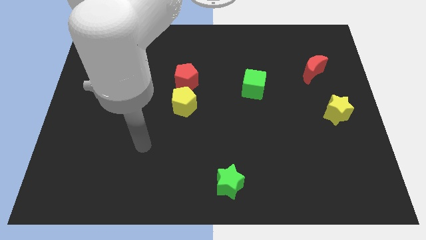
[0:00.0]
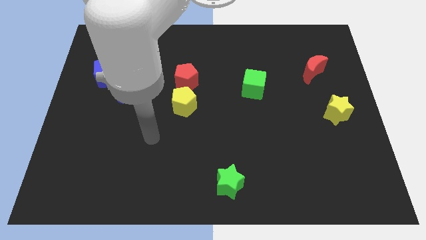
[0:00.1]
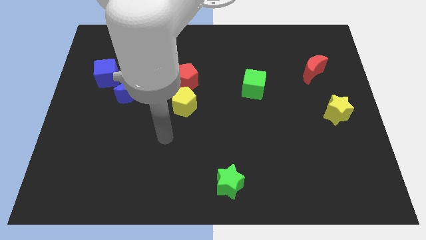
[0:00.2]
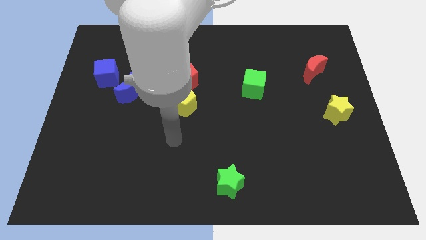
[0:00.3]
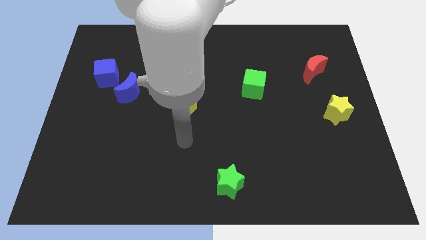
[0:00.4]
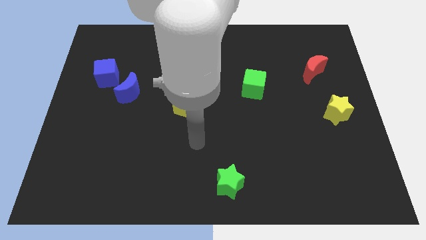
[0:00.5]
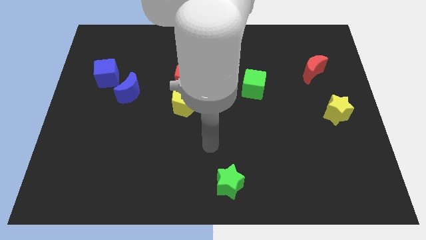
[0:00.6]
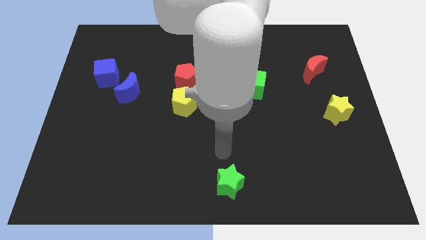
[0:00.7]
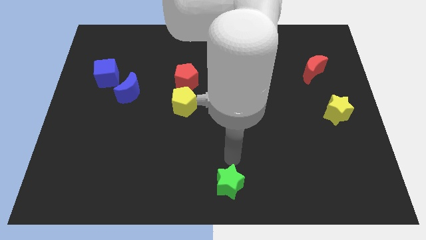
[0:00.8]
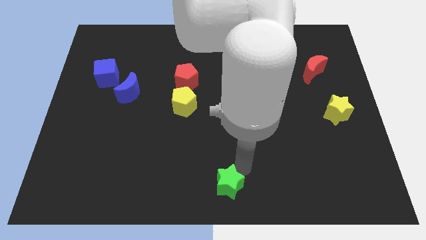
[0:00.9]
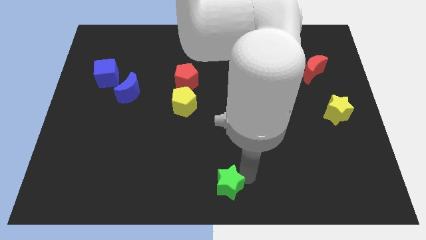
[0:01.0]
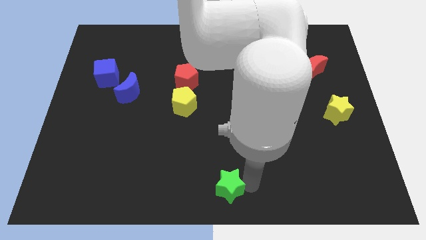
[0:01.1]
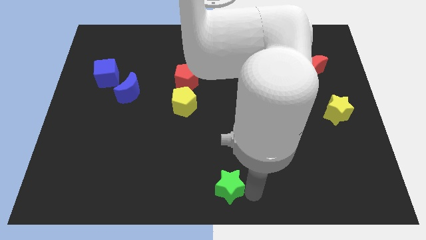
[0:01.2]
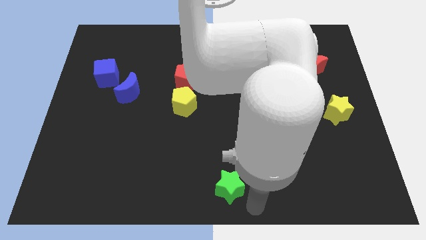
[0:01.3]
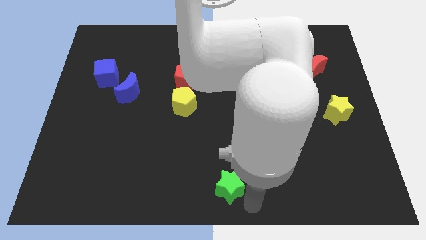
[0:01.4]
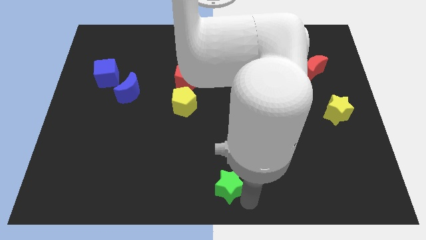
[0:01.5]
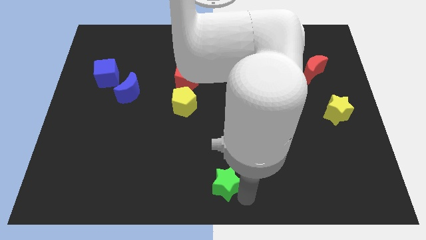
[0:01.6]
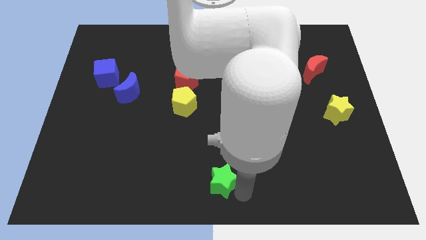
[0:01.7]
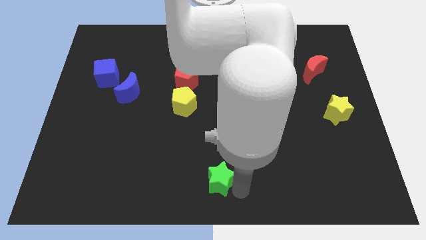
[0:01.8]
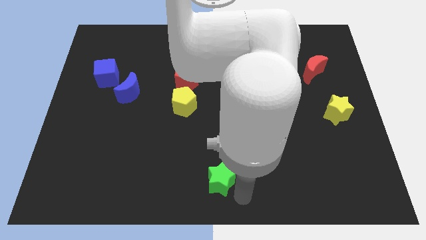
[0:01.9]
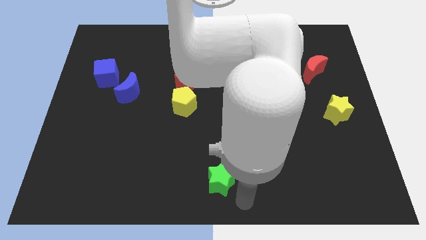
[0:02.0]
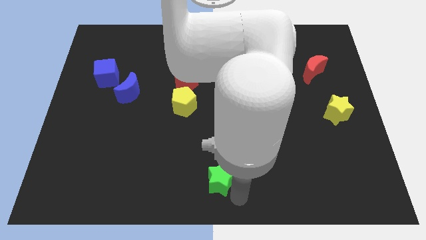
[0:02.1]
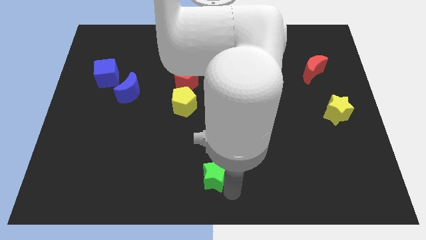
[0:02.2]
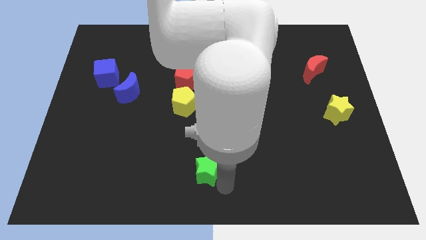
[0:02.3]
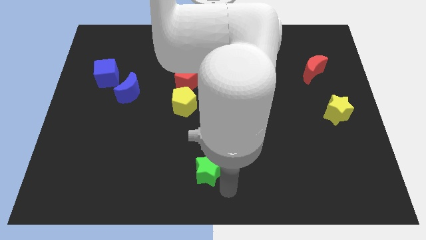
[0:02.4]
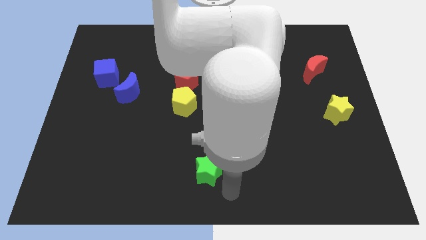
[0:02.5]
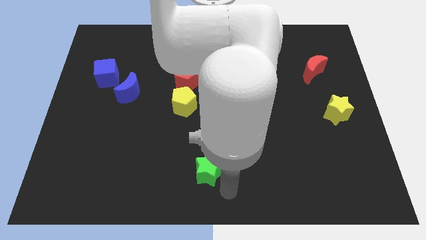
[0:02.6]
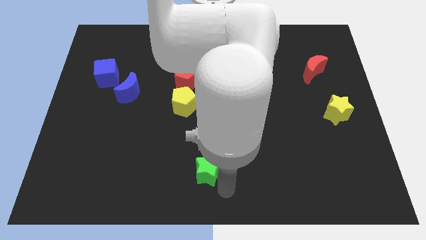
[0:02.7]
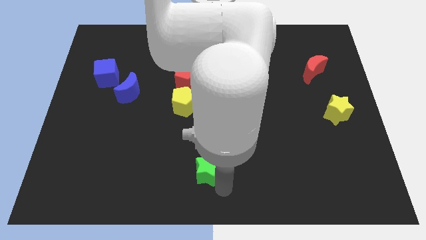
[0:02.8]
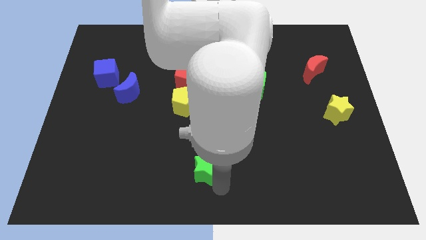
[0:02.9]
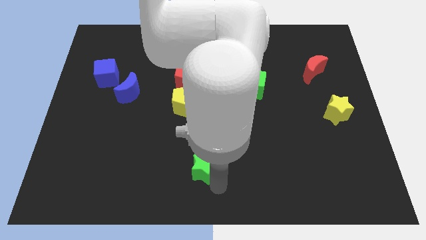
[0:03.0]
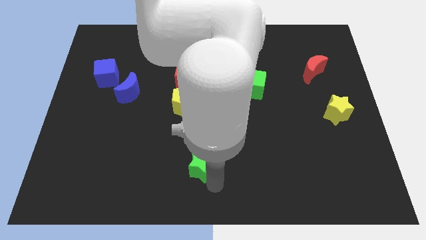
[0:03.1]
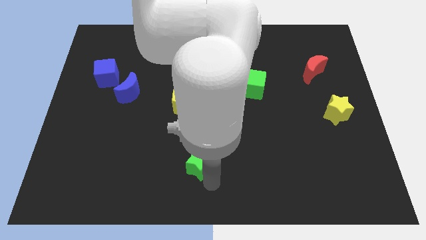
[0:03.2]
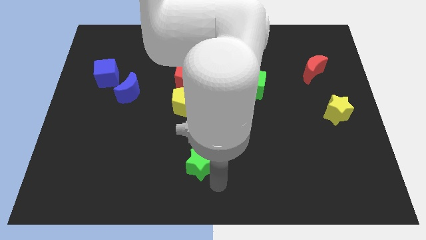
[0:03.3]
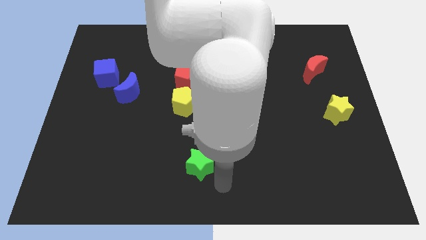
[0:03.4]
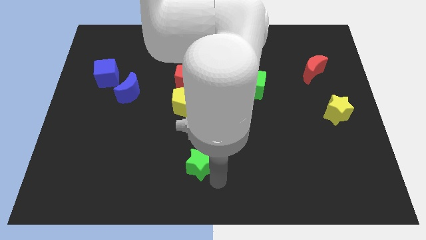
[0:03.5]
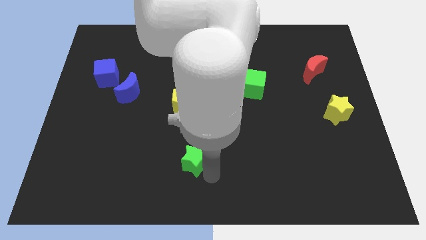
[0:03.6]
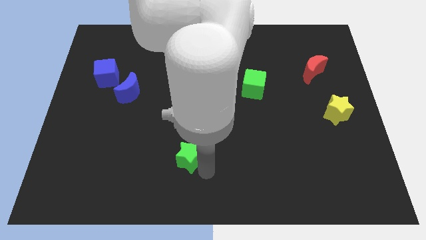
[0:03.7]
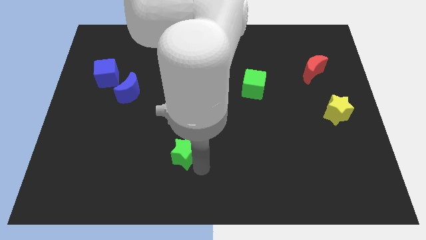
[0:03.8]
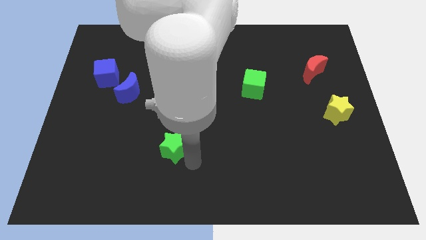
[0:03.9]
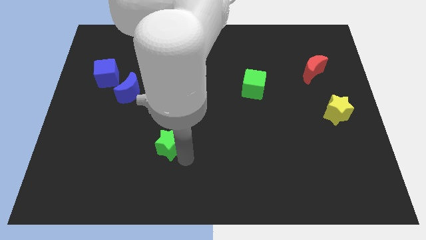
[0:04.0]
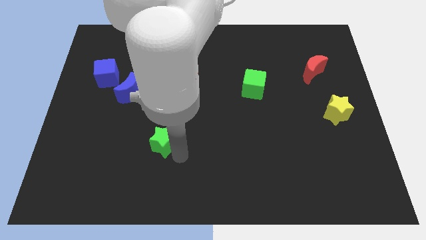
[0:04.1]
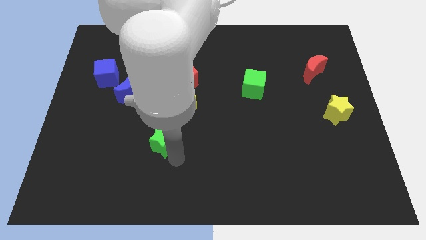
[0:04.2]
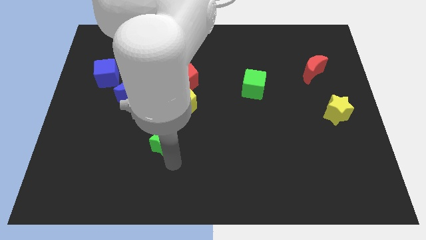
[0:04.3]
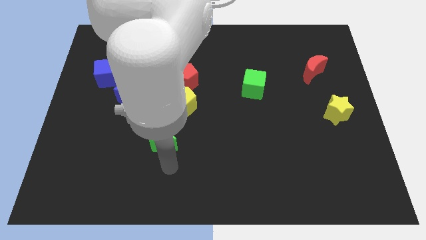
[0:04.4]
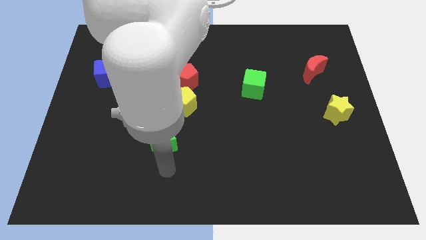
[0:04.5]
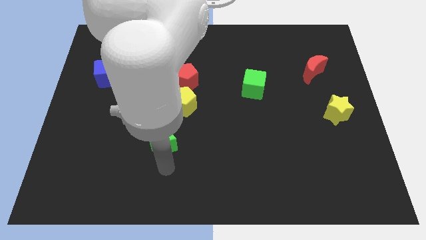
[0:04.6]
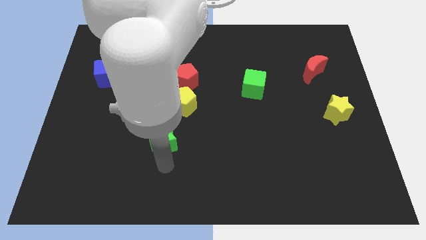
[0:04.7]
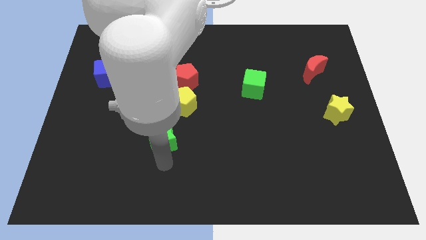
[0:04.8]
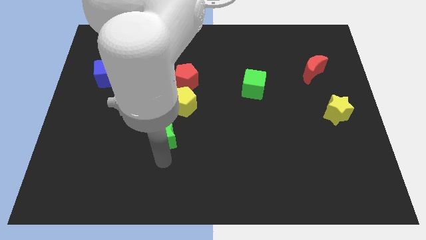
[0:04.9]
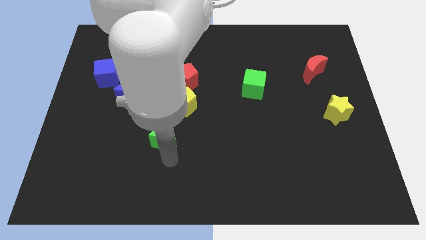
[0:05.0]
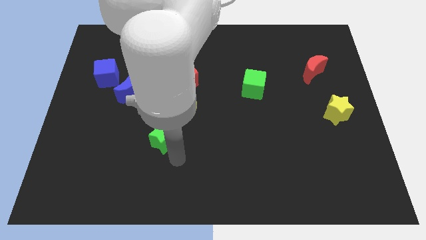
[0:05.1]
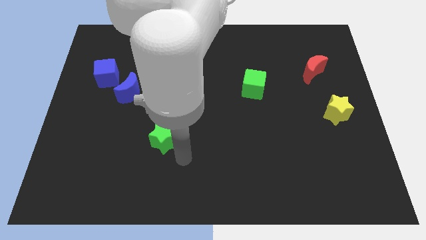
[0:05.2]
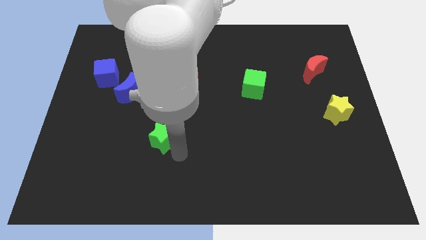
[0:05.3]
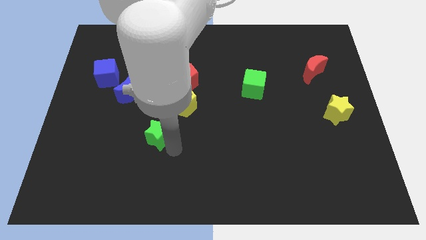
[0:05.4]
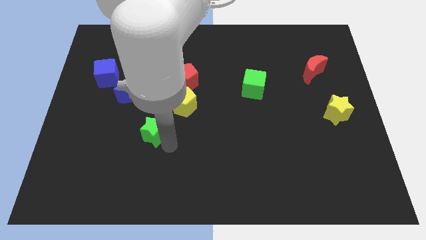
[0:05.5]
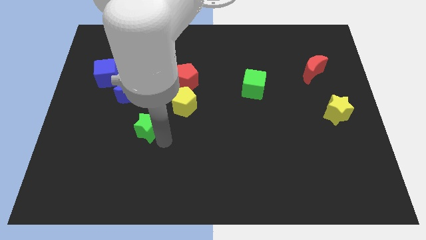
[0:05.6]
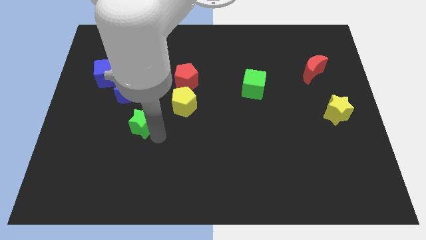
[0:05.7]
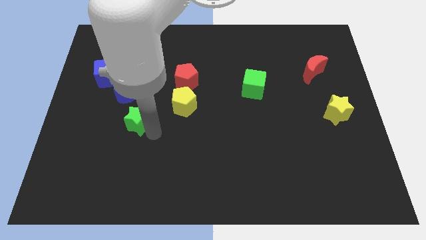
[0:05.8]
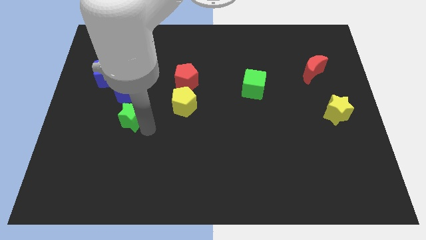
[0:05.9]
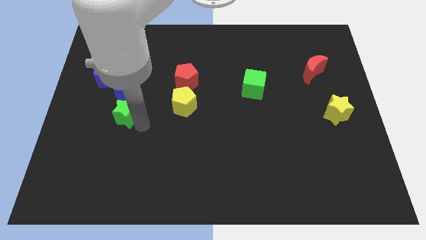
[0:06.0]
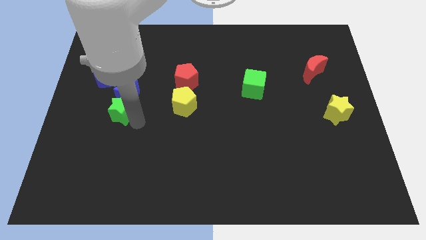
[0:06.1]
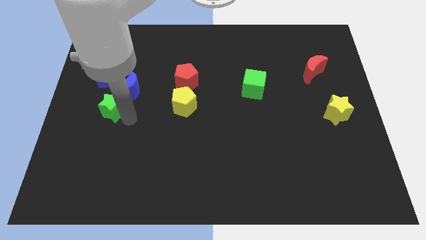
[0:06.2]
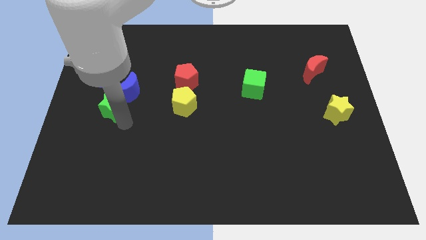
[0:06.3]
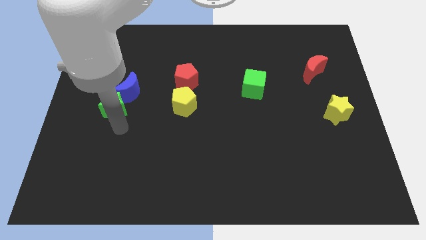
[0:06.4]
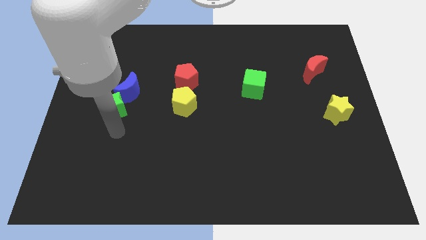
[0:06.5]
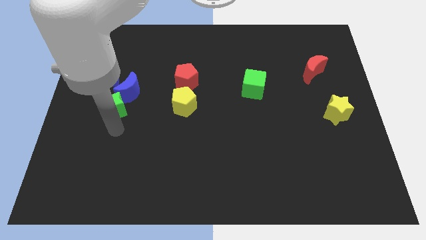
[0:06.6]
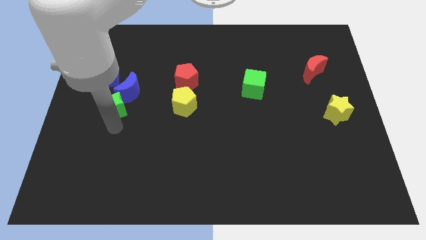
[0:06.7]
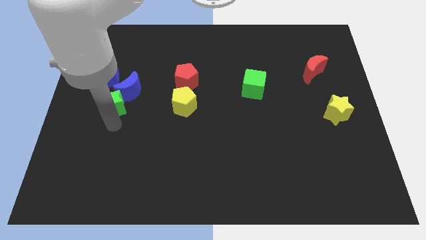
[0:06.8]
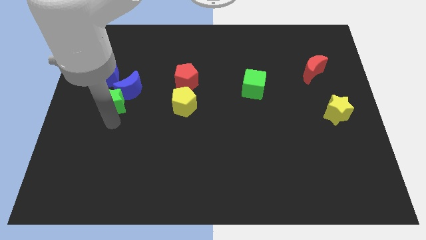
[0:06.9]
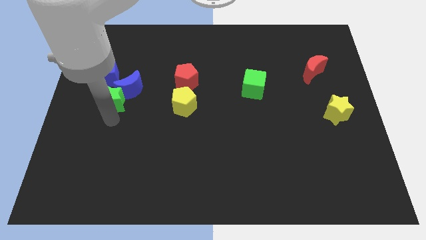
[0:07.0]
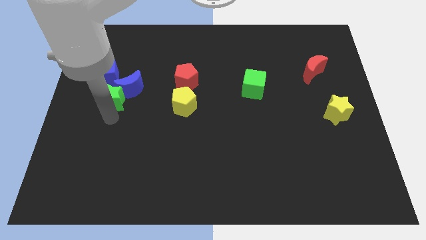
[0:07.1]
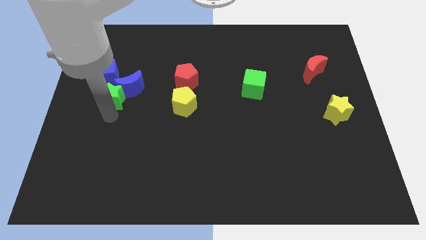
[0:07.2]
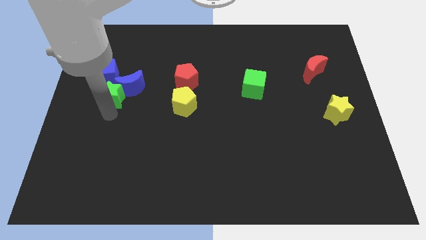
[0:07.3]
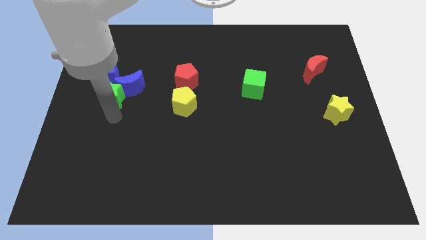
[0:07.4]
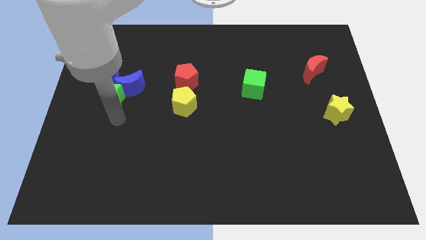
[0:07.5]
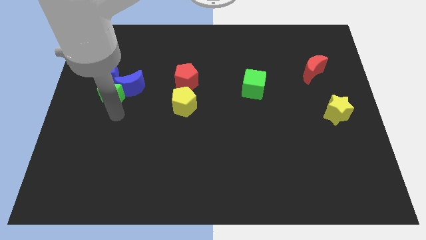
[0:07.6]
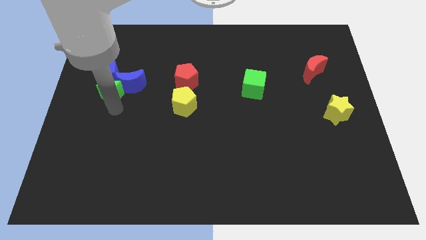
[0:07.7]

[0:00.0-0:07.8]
push the green star towards the blue cube

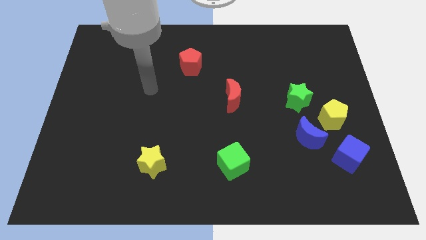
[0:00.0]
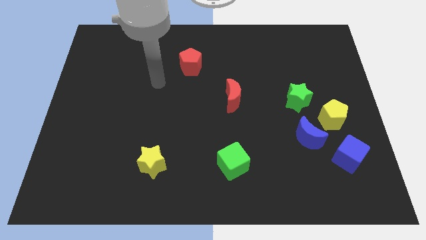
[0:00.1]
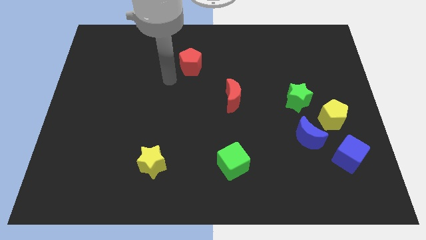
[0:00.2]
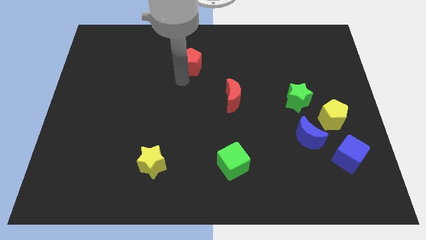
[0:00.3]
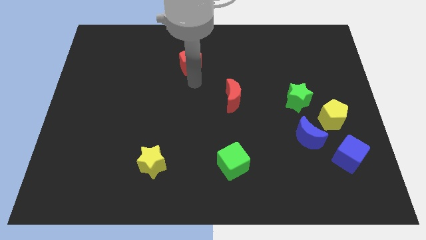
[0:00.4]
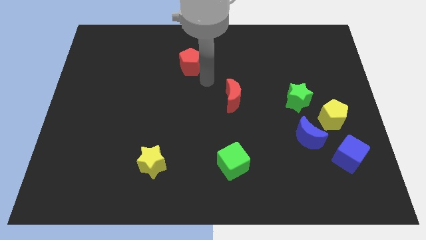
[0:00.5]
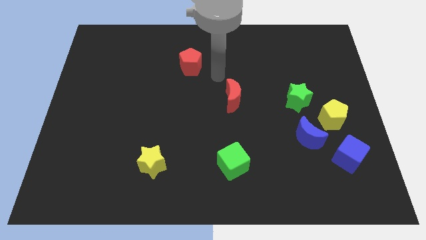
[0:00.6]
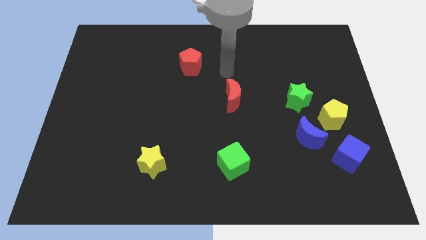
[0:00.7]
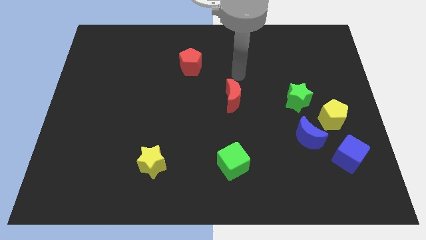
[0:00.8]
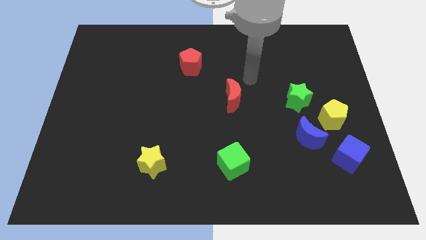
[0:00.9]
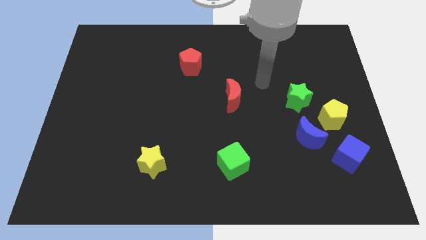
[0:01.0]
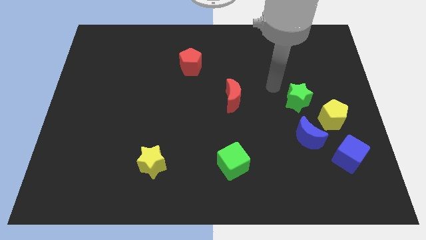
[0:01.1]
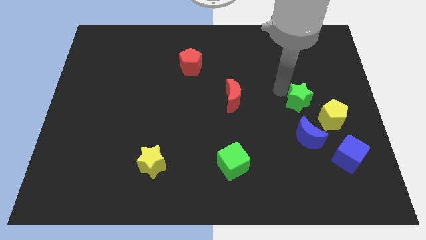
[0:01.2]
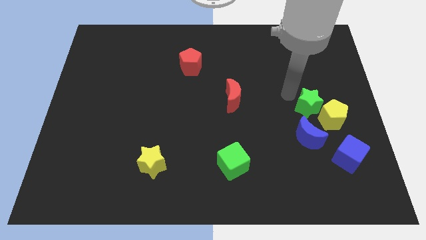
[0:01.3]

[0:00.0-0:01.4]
put the green star next to the yellow pentagon
